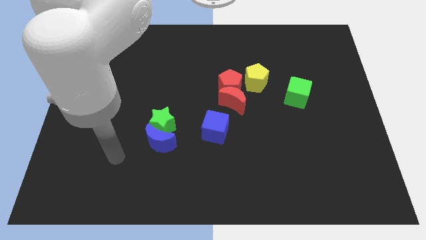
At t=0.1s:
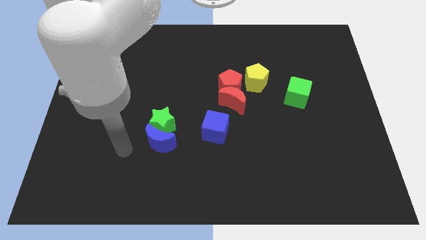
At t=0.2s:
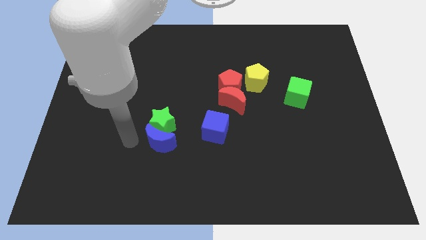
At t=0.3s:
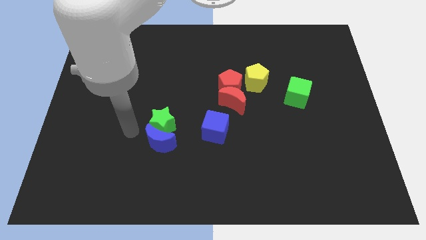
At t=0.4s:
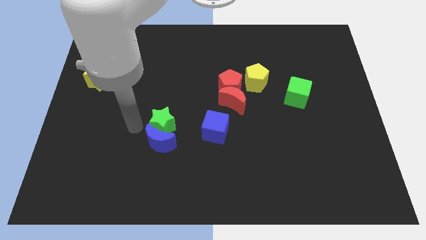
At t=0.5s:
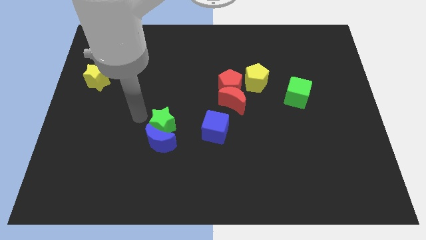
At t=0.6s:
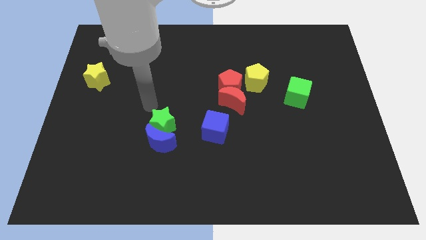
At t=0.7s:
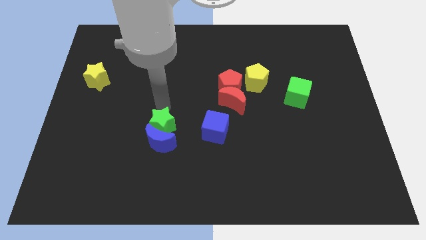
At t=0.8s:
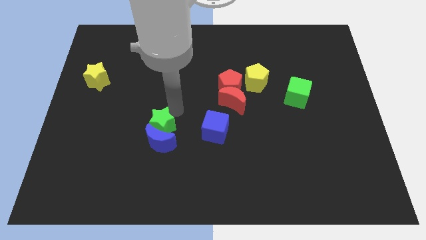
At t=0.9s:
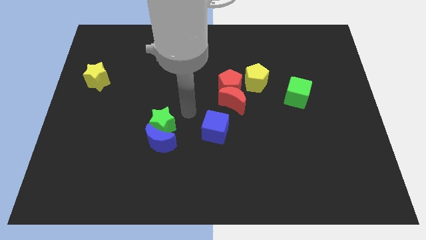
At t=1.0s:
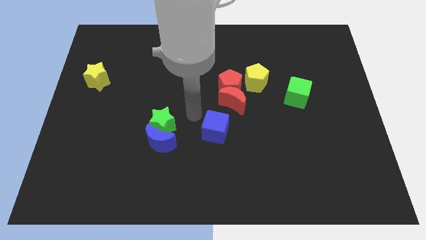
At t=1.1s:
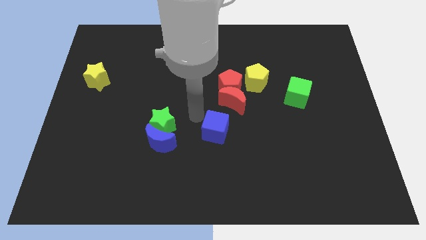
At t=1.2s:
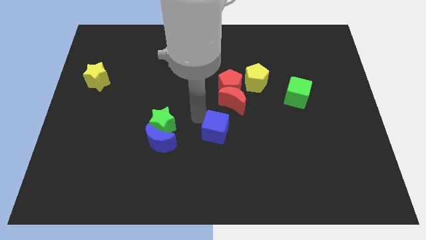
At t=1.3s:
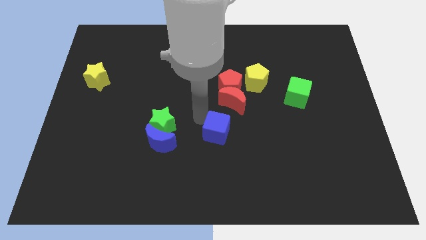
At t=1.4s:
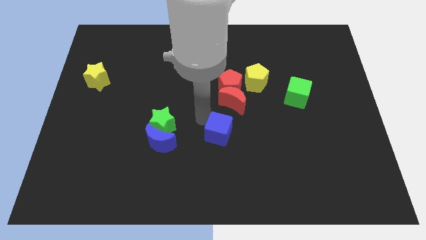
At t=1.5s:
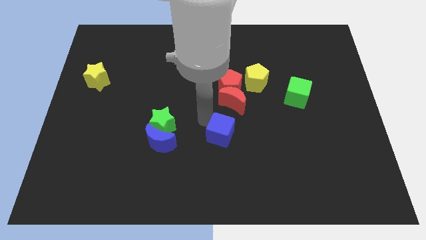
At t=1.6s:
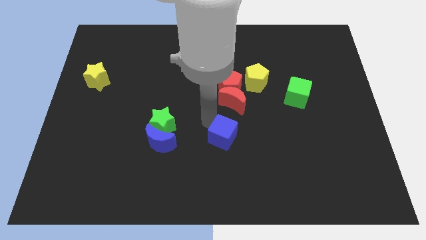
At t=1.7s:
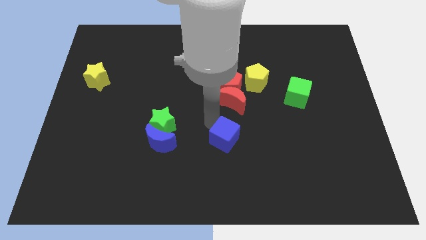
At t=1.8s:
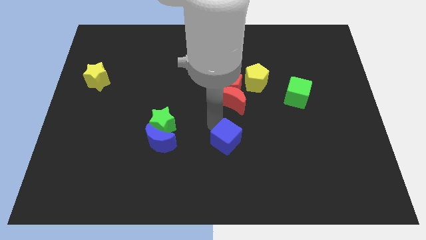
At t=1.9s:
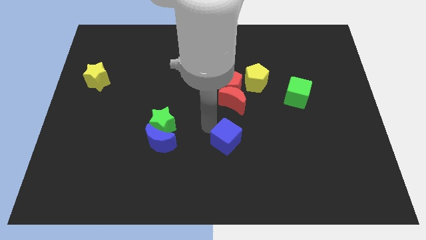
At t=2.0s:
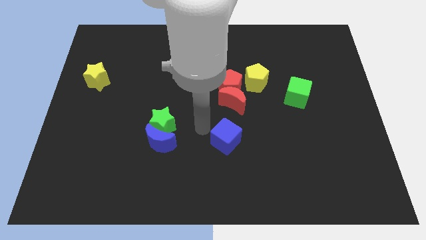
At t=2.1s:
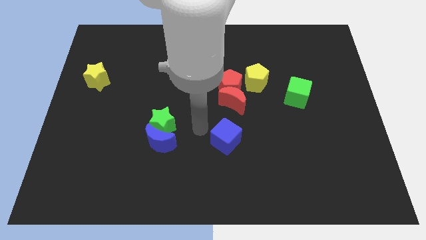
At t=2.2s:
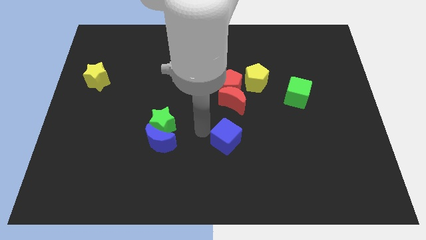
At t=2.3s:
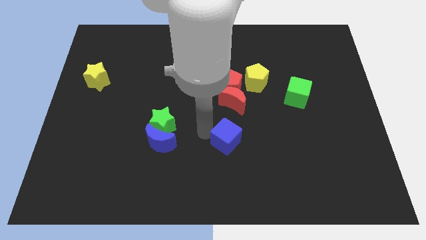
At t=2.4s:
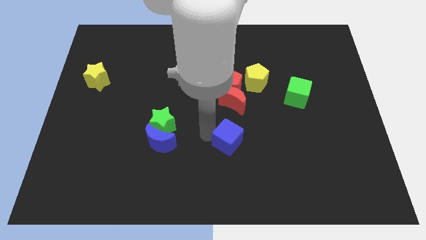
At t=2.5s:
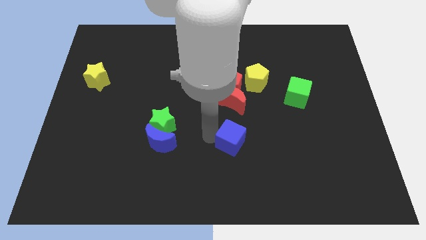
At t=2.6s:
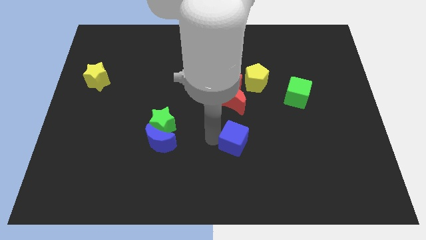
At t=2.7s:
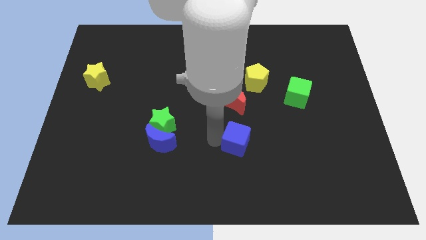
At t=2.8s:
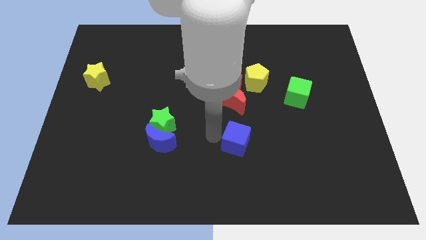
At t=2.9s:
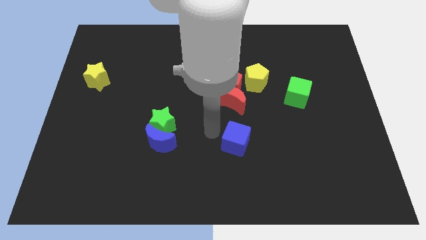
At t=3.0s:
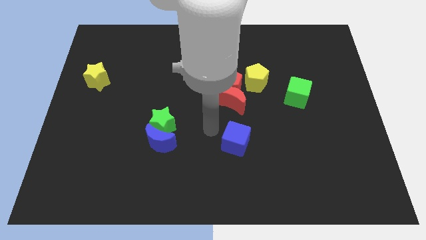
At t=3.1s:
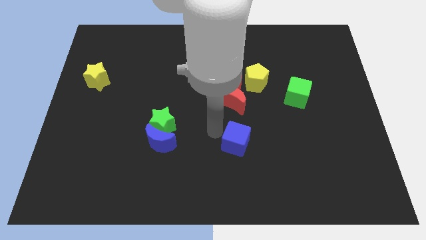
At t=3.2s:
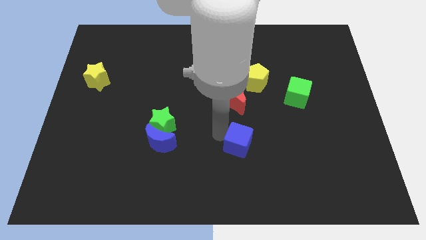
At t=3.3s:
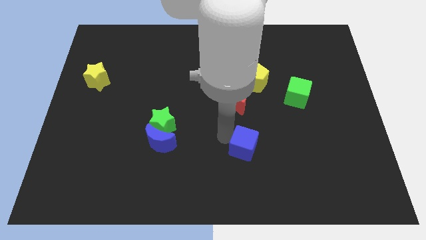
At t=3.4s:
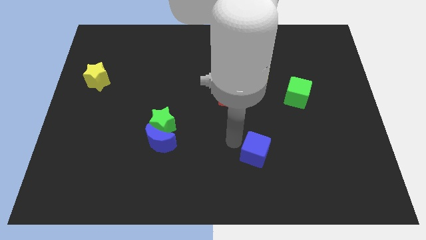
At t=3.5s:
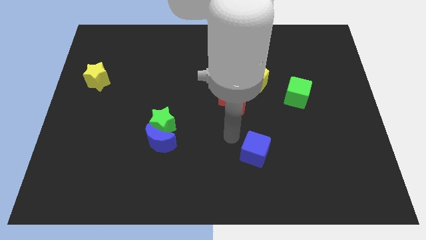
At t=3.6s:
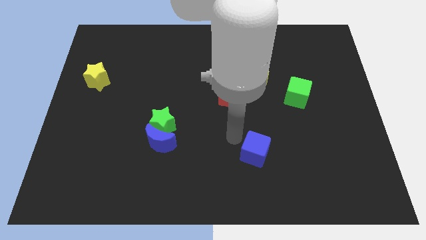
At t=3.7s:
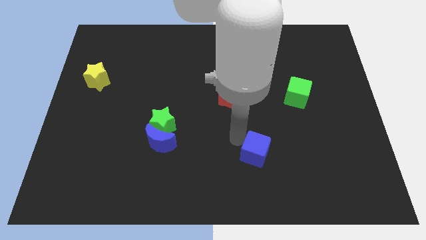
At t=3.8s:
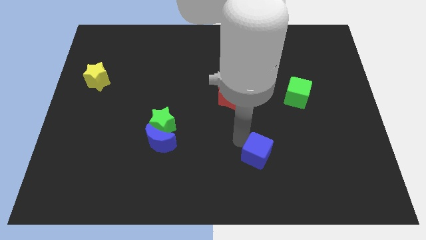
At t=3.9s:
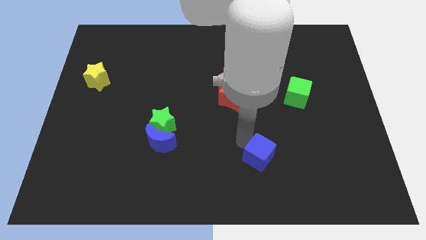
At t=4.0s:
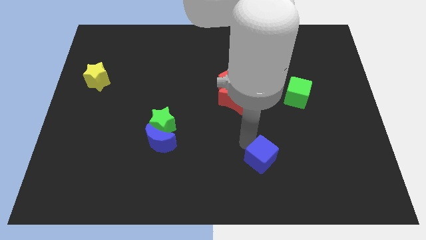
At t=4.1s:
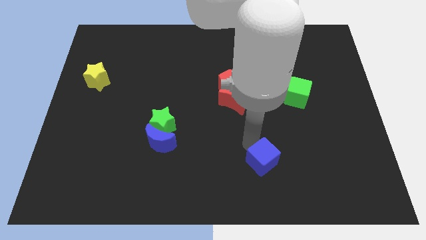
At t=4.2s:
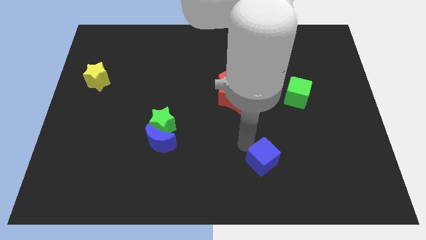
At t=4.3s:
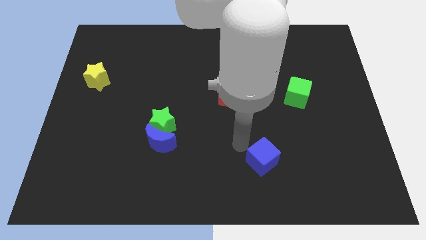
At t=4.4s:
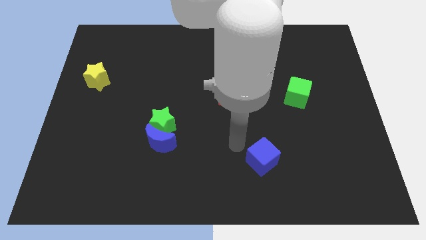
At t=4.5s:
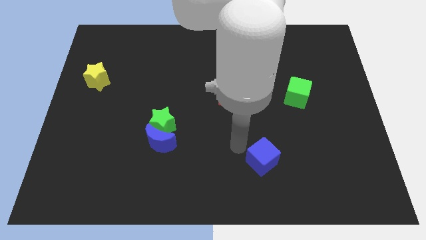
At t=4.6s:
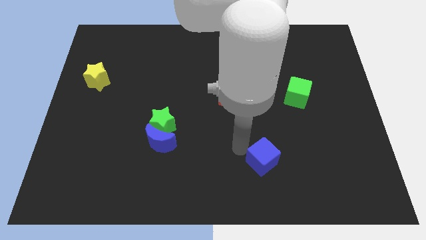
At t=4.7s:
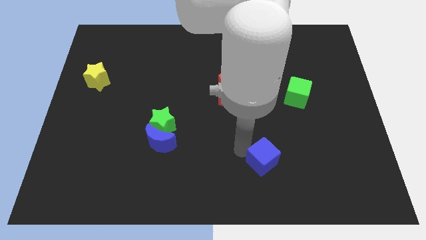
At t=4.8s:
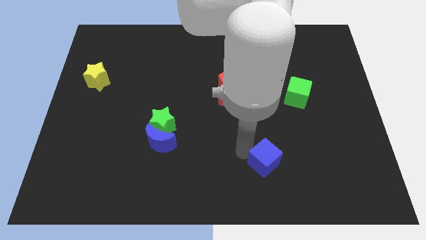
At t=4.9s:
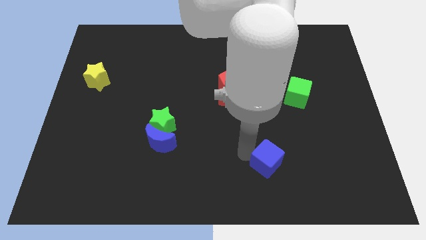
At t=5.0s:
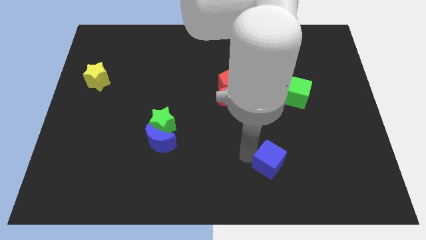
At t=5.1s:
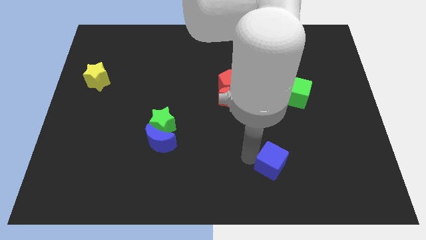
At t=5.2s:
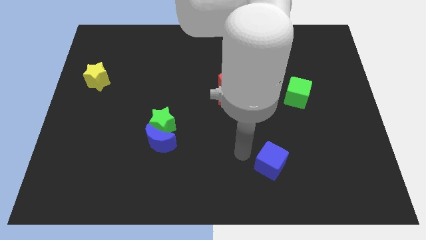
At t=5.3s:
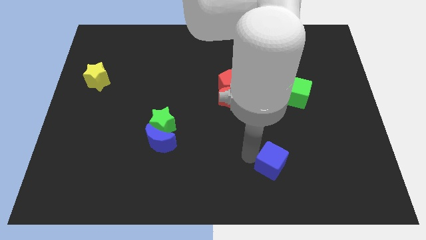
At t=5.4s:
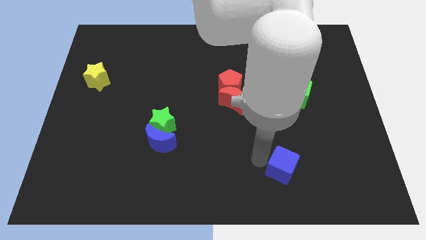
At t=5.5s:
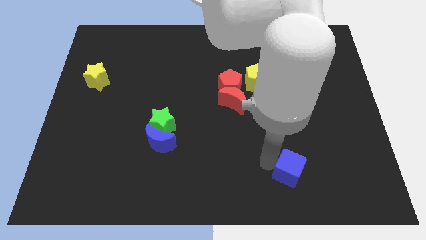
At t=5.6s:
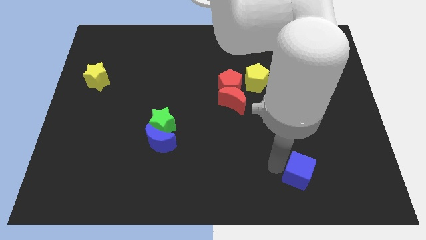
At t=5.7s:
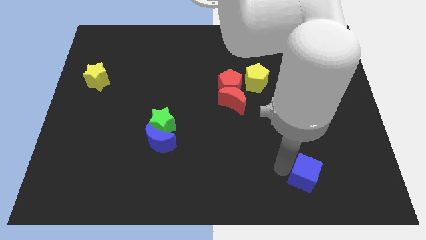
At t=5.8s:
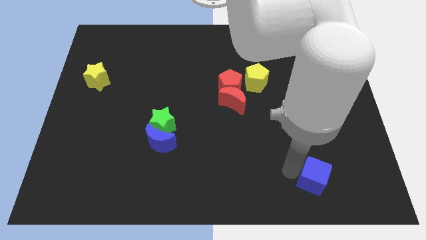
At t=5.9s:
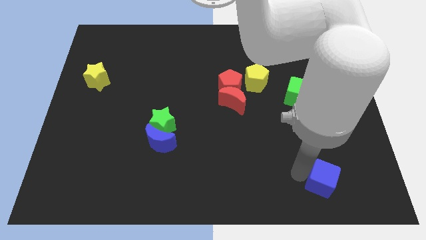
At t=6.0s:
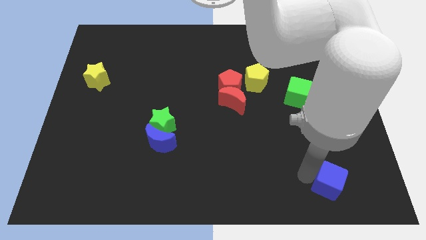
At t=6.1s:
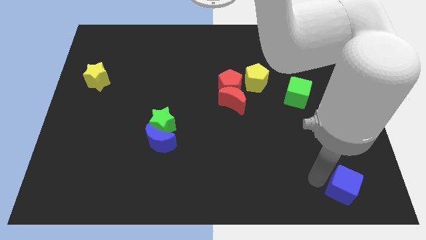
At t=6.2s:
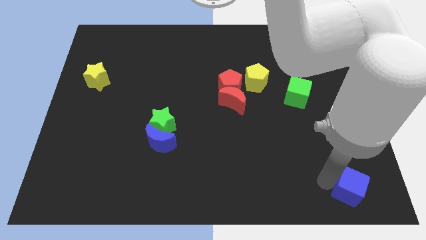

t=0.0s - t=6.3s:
put the blue cube to the bottom right corner

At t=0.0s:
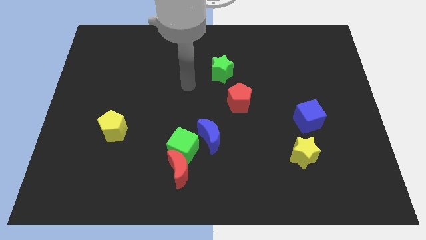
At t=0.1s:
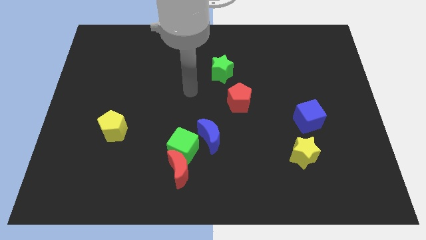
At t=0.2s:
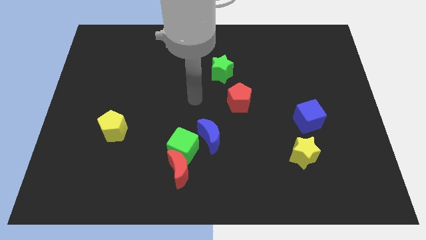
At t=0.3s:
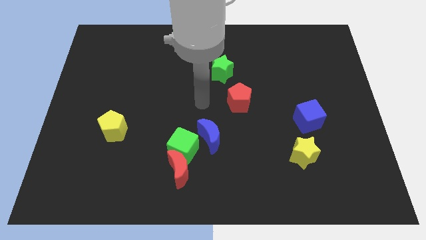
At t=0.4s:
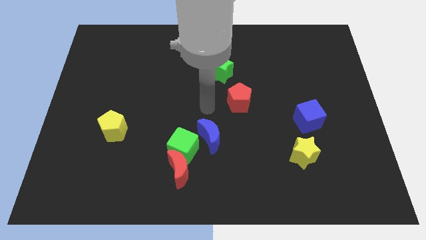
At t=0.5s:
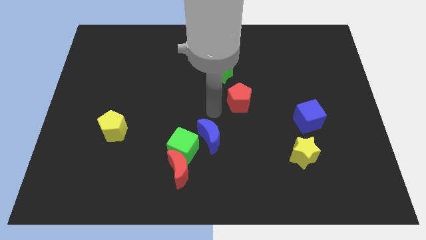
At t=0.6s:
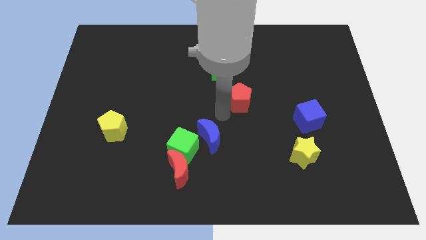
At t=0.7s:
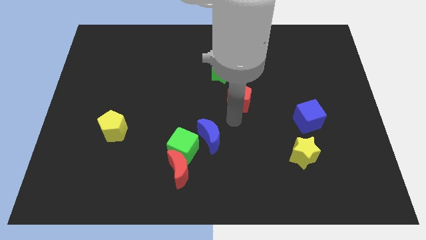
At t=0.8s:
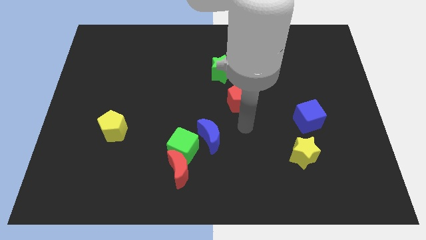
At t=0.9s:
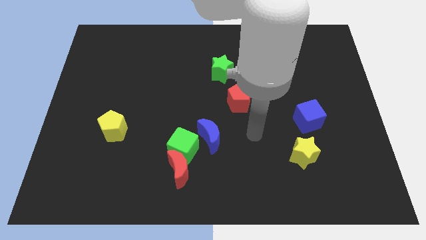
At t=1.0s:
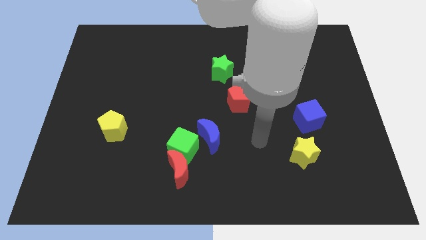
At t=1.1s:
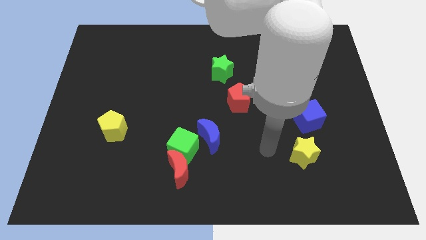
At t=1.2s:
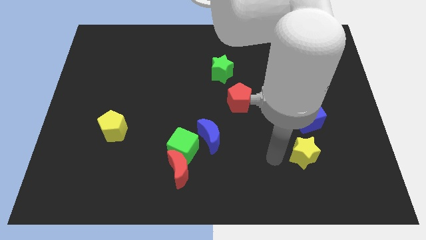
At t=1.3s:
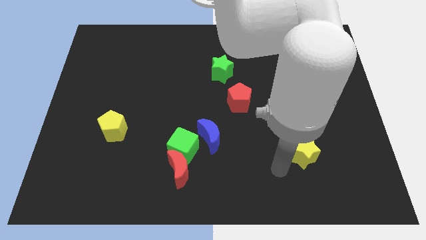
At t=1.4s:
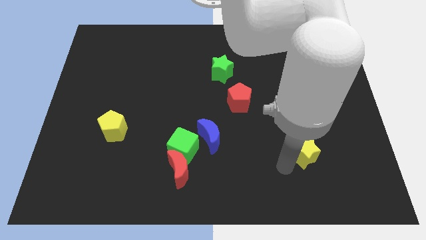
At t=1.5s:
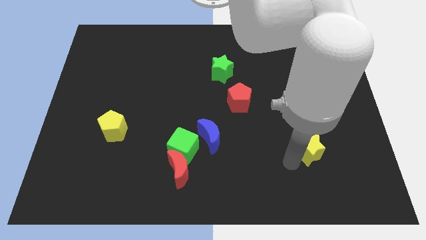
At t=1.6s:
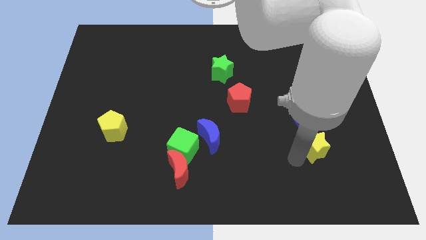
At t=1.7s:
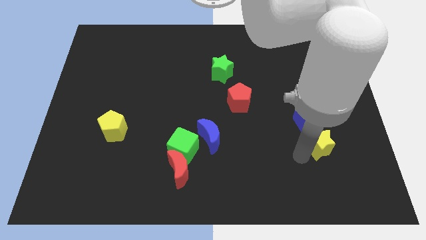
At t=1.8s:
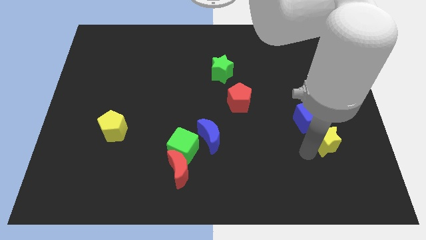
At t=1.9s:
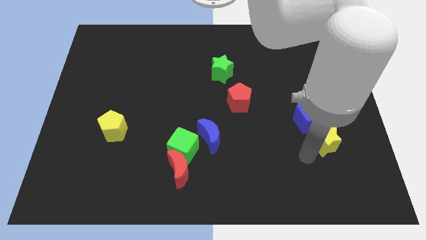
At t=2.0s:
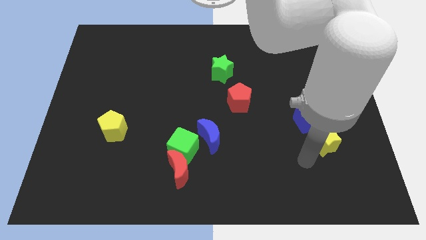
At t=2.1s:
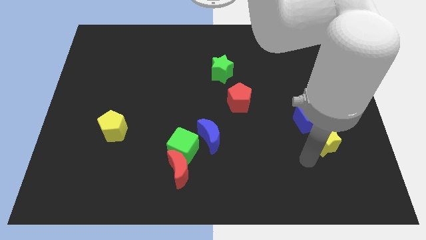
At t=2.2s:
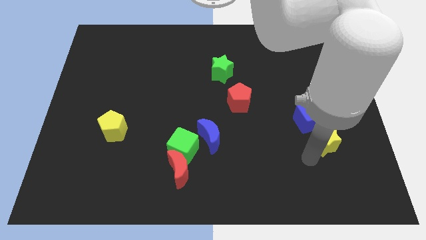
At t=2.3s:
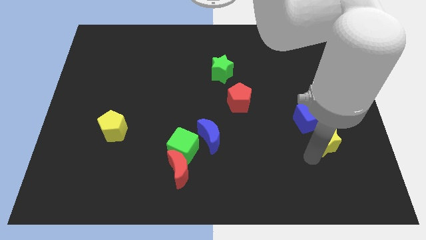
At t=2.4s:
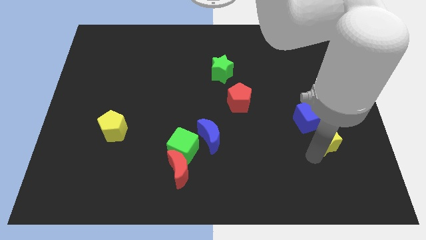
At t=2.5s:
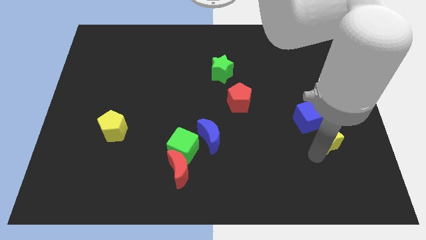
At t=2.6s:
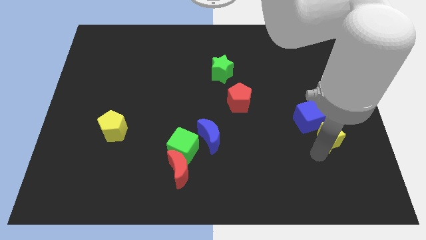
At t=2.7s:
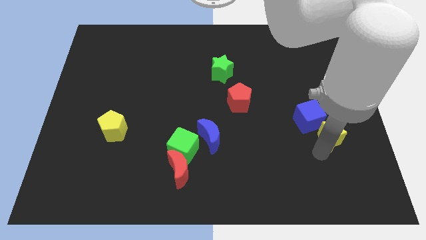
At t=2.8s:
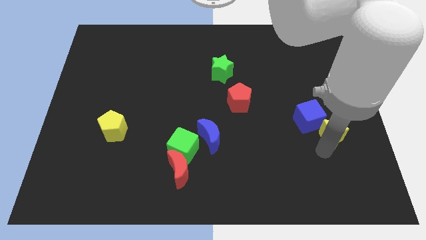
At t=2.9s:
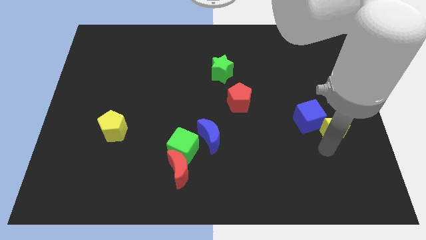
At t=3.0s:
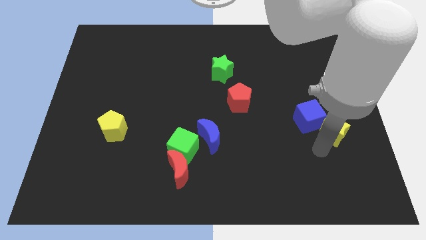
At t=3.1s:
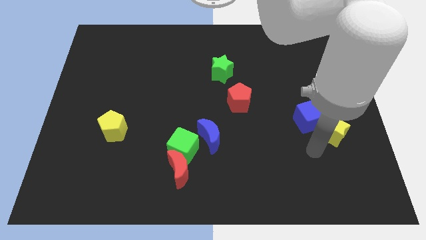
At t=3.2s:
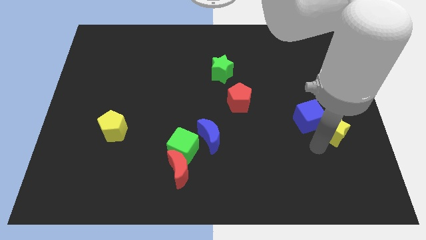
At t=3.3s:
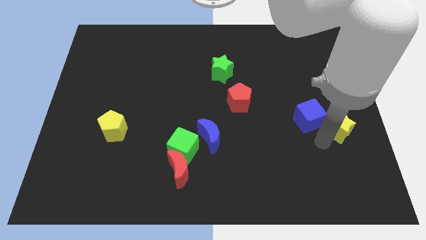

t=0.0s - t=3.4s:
put the yellow star to the right side
